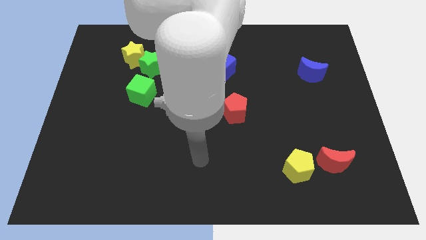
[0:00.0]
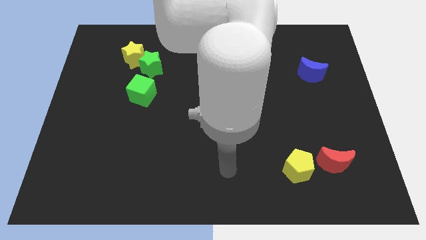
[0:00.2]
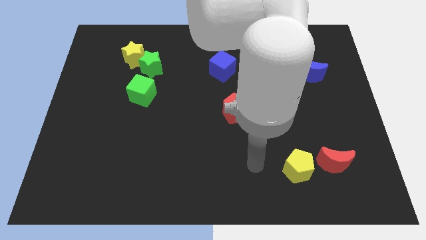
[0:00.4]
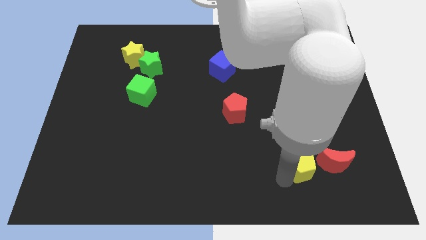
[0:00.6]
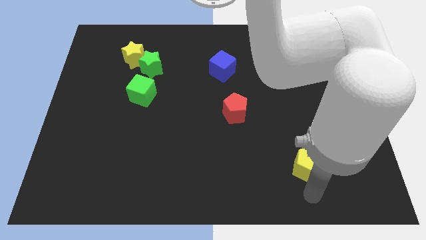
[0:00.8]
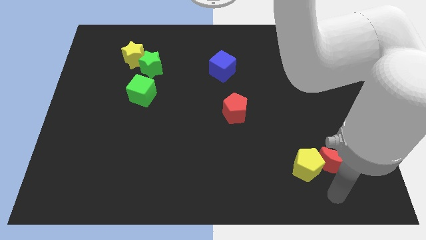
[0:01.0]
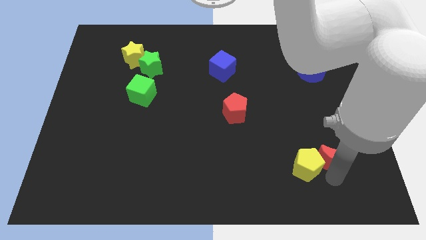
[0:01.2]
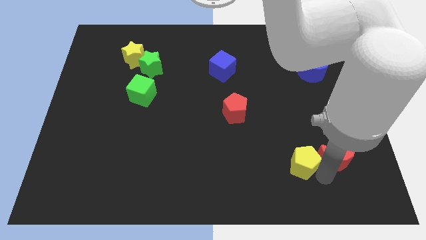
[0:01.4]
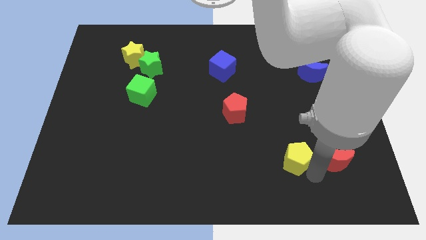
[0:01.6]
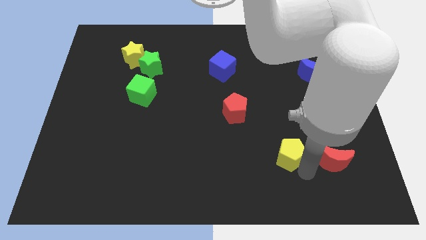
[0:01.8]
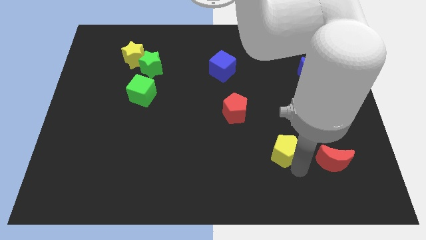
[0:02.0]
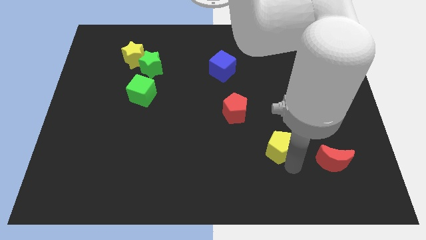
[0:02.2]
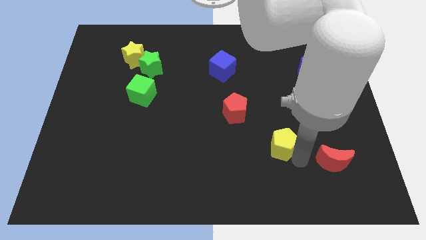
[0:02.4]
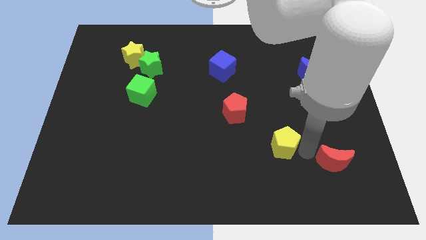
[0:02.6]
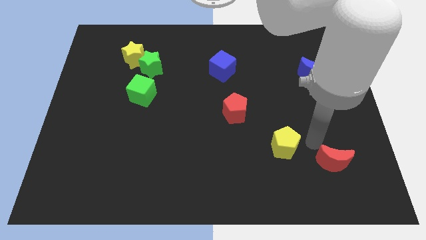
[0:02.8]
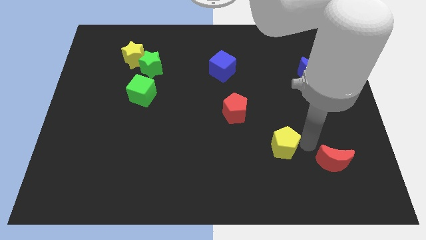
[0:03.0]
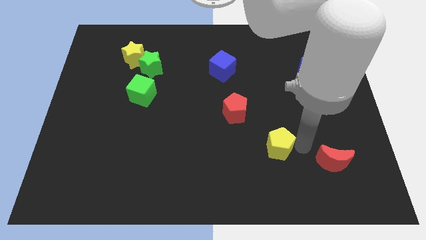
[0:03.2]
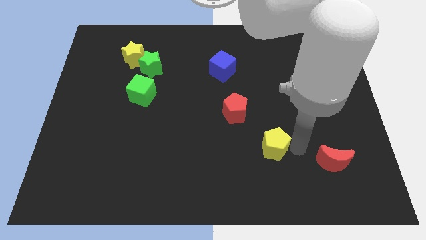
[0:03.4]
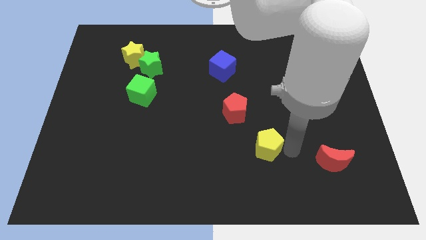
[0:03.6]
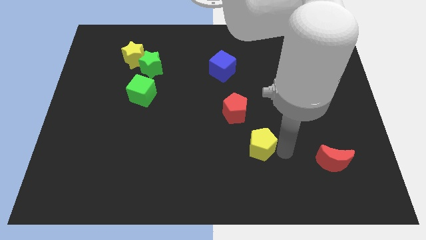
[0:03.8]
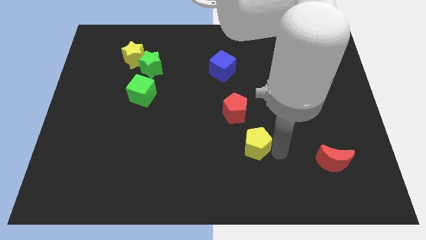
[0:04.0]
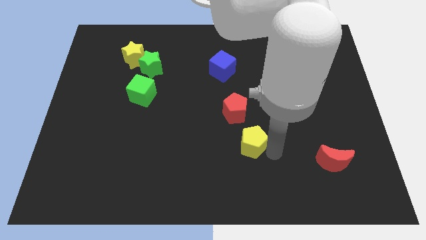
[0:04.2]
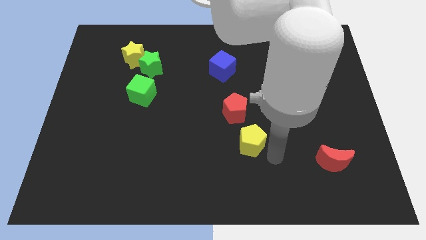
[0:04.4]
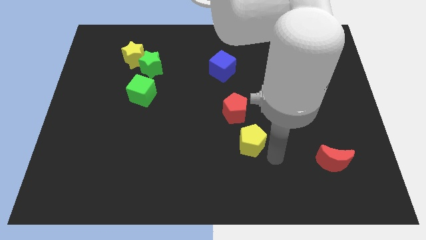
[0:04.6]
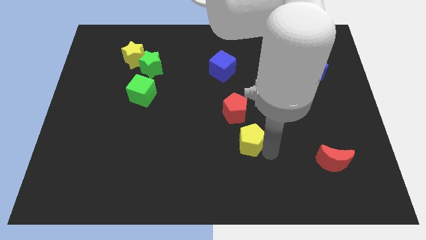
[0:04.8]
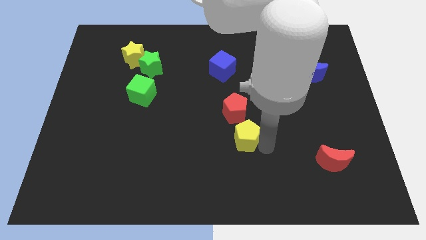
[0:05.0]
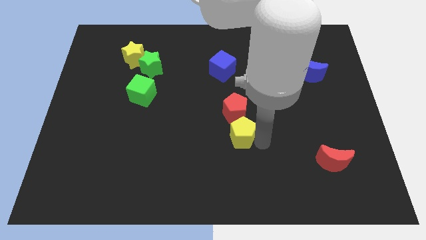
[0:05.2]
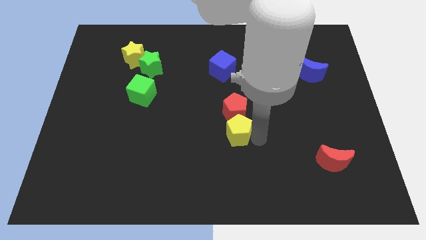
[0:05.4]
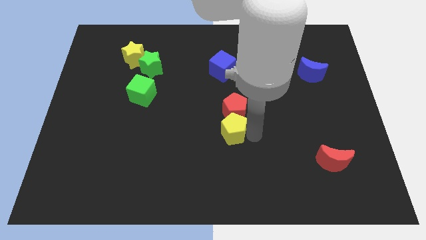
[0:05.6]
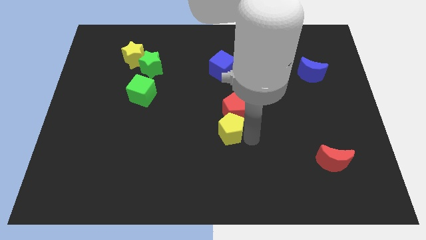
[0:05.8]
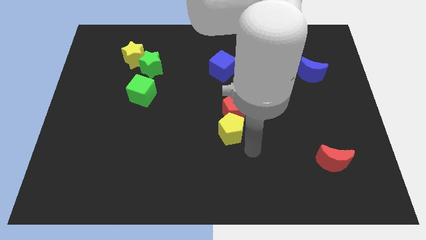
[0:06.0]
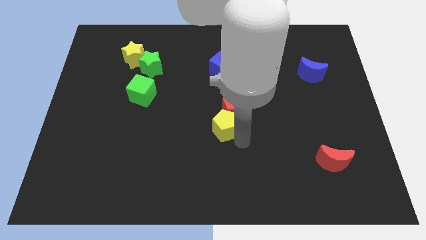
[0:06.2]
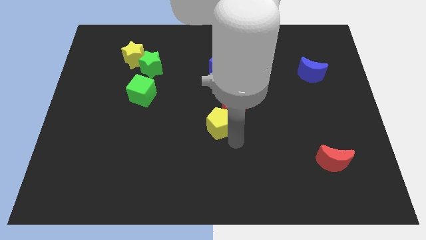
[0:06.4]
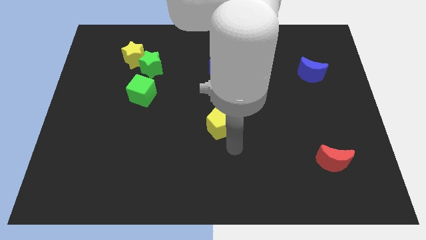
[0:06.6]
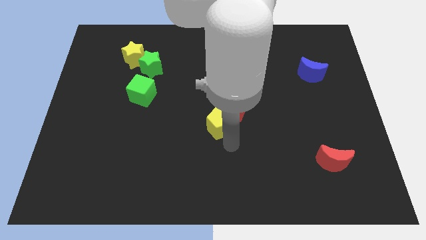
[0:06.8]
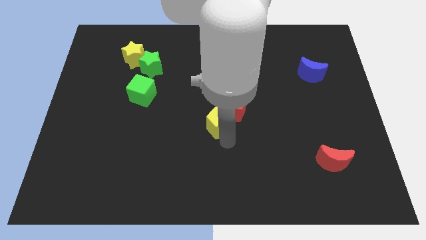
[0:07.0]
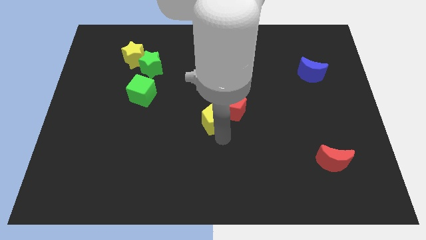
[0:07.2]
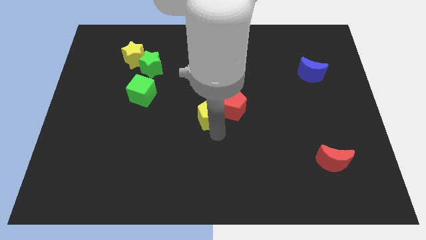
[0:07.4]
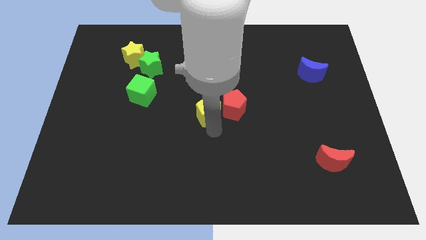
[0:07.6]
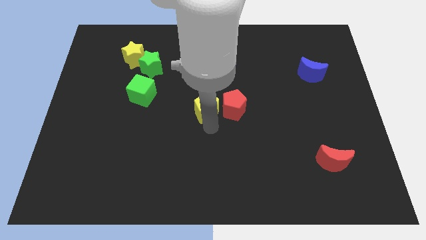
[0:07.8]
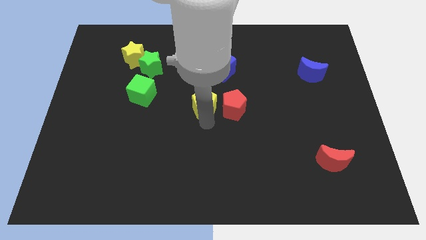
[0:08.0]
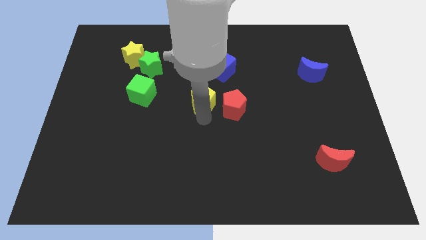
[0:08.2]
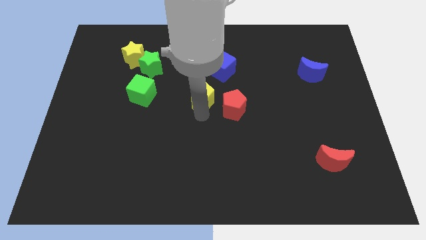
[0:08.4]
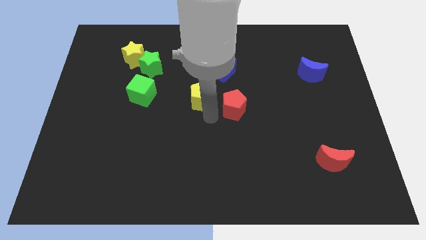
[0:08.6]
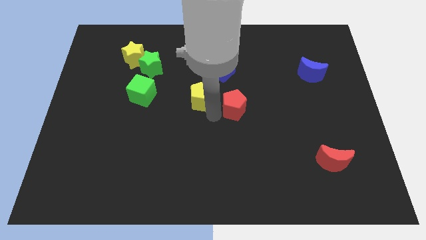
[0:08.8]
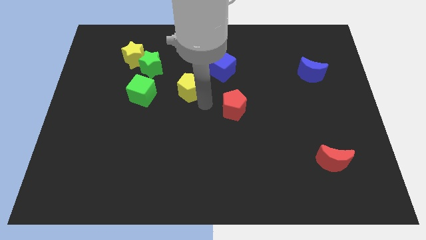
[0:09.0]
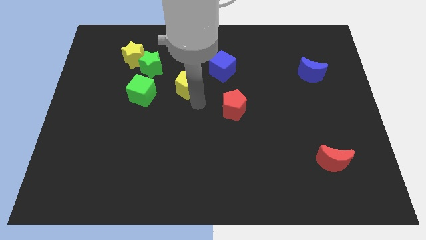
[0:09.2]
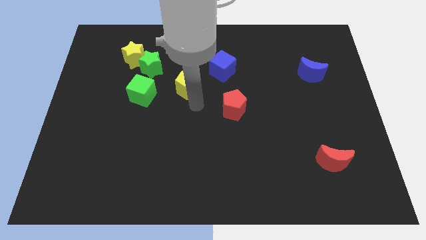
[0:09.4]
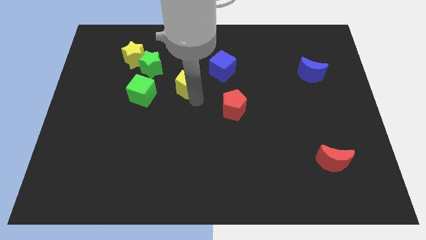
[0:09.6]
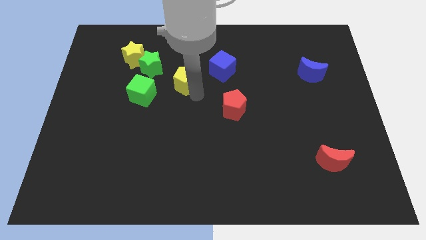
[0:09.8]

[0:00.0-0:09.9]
move the yellow pentagon to the left side of the blue cube

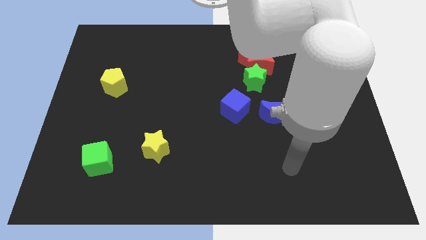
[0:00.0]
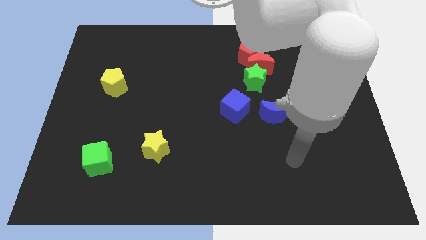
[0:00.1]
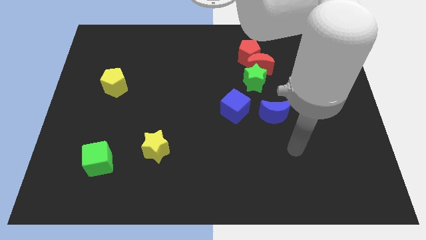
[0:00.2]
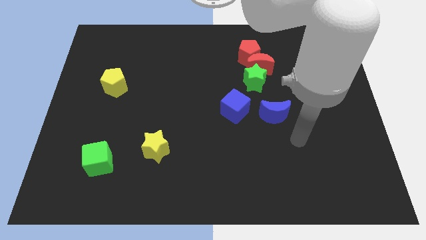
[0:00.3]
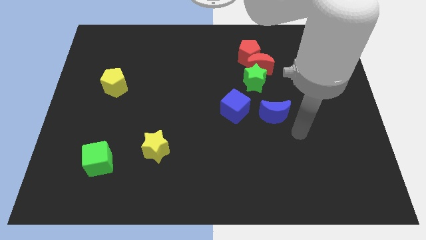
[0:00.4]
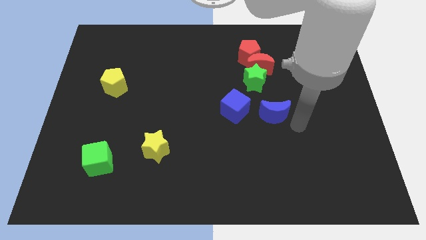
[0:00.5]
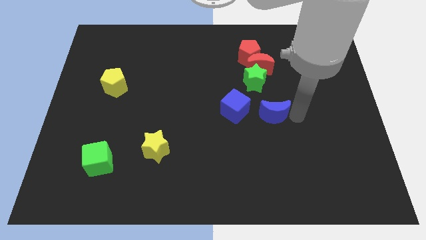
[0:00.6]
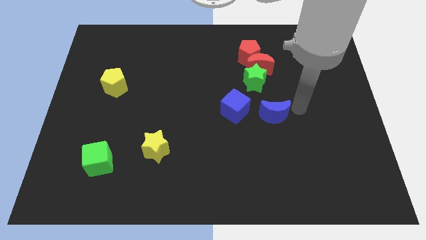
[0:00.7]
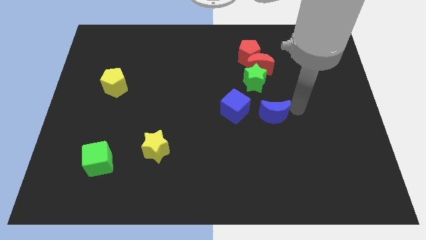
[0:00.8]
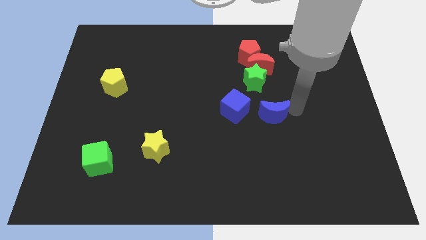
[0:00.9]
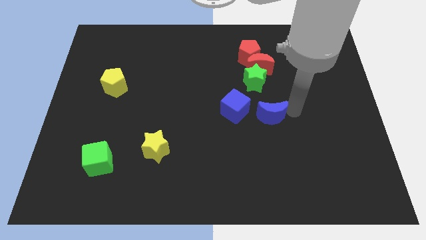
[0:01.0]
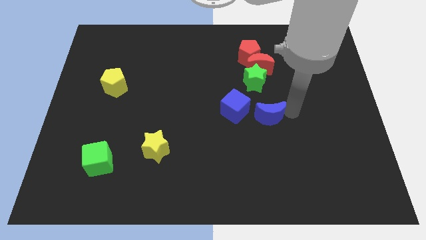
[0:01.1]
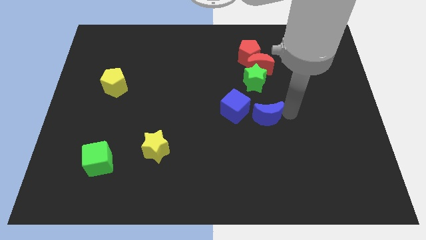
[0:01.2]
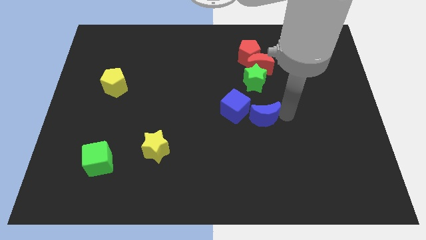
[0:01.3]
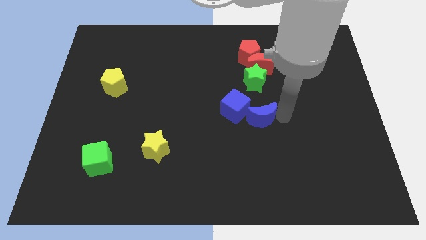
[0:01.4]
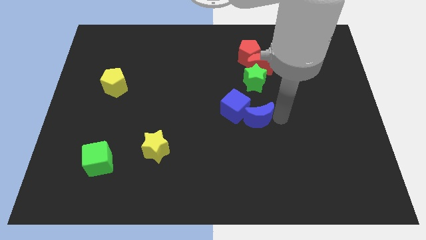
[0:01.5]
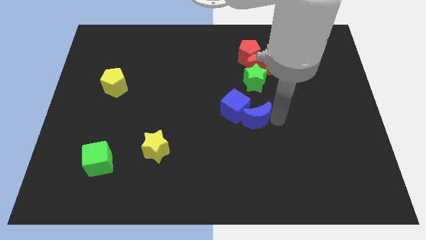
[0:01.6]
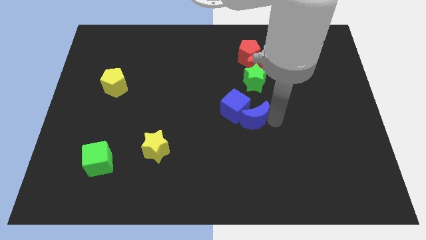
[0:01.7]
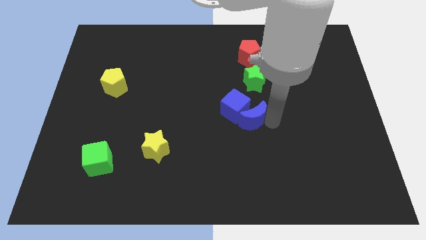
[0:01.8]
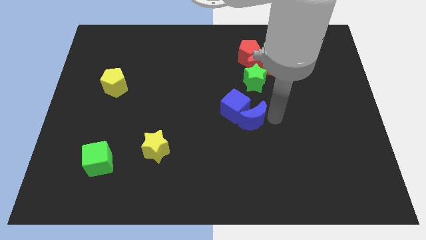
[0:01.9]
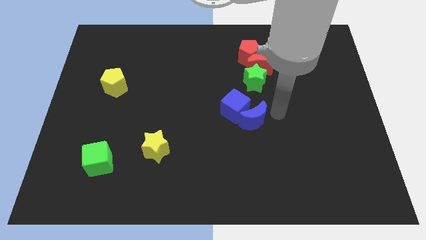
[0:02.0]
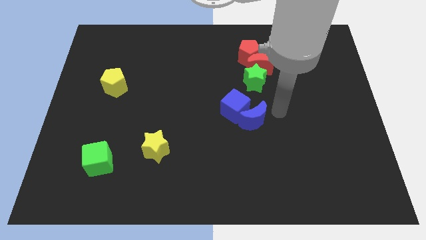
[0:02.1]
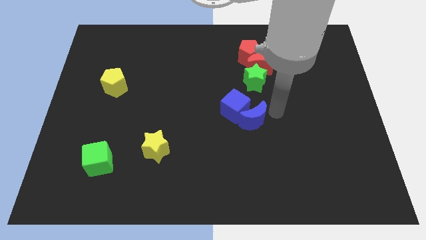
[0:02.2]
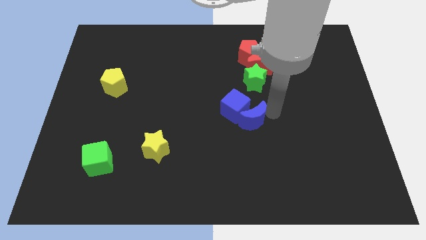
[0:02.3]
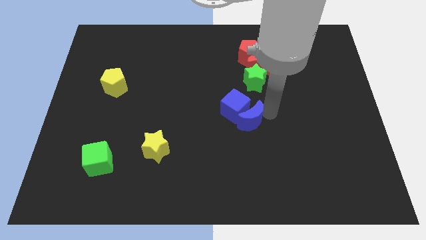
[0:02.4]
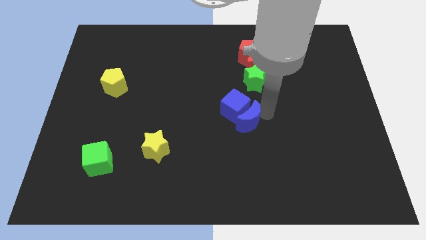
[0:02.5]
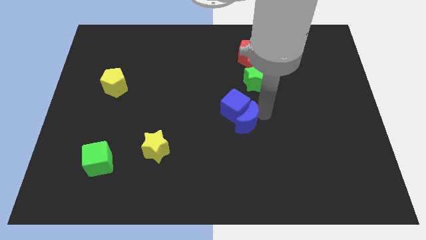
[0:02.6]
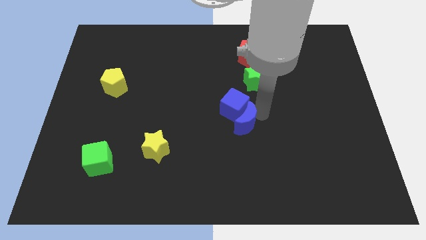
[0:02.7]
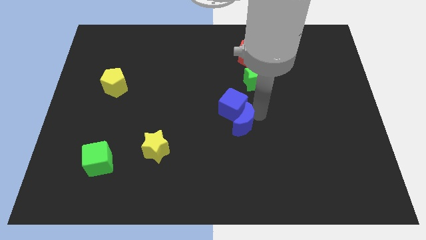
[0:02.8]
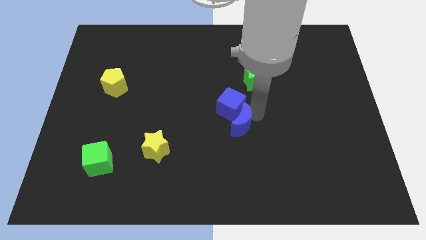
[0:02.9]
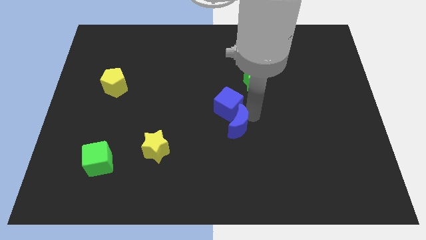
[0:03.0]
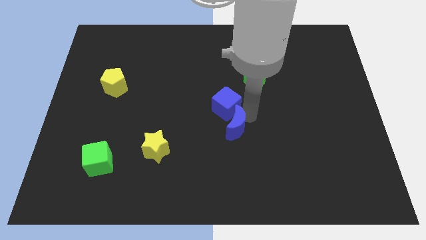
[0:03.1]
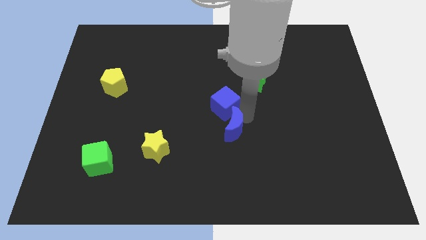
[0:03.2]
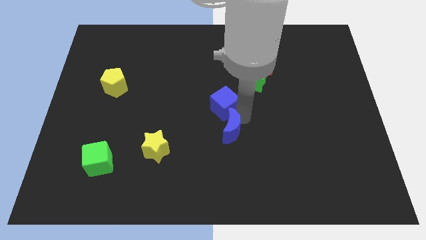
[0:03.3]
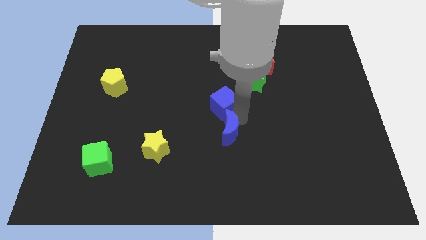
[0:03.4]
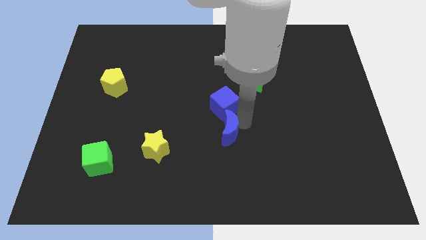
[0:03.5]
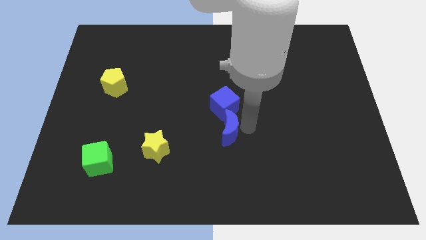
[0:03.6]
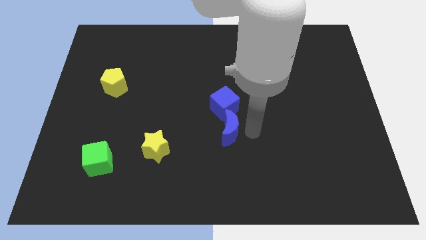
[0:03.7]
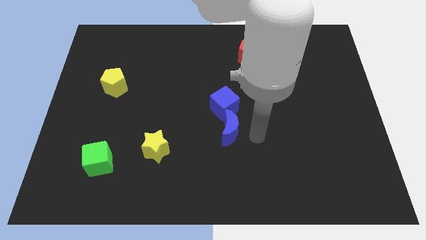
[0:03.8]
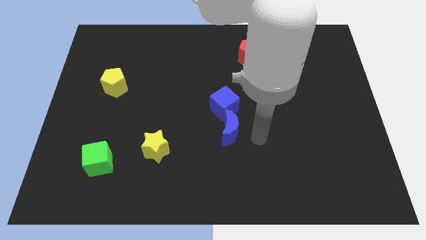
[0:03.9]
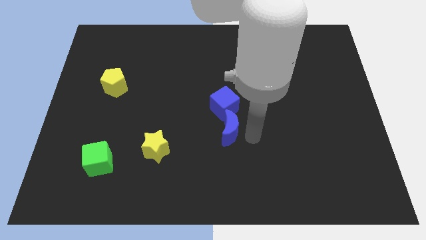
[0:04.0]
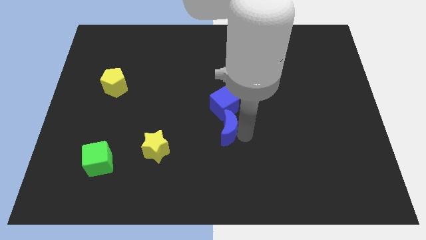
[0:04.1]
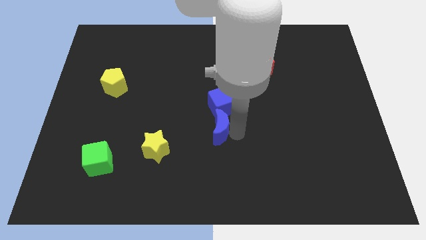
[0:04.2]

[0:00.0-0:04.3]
put the blue moon to the bottom left side of the blue cube
